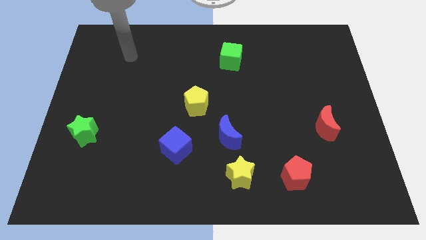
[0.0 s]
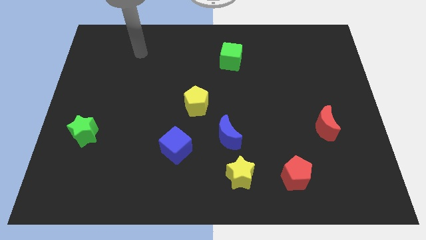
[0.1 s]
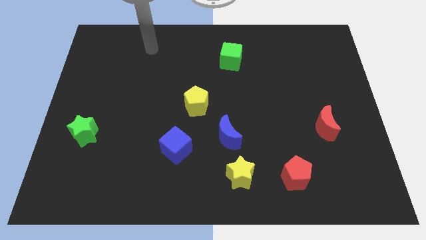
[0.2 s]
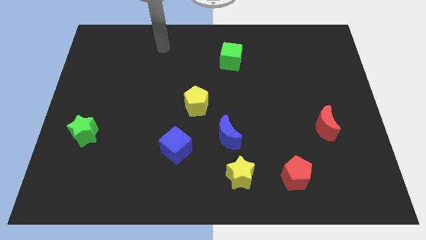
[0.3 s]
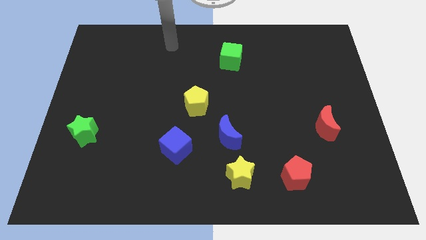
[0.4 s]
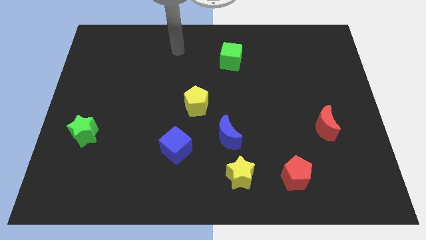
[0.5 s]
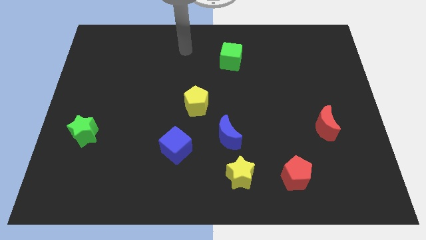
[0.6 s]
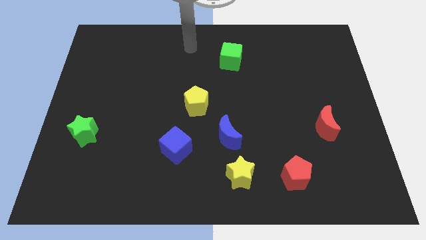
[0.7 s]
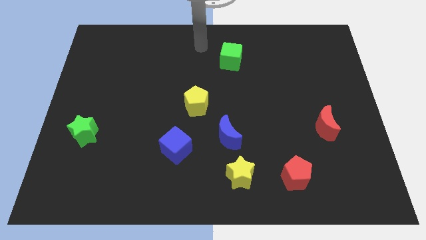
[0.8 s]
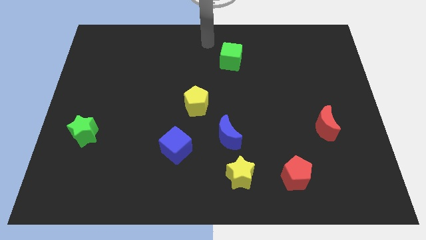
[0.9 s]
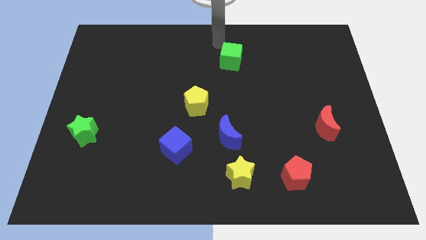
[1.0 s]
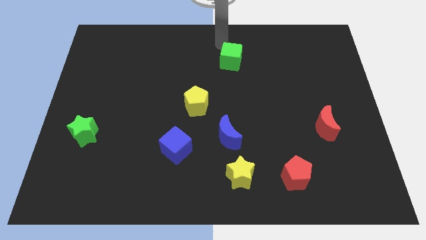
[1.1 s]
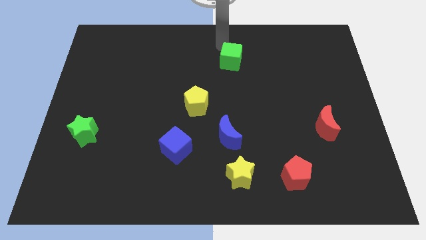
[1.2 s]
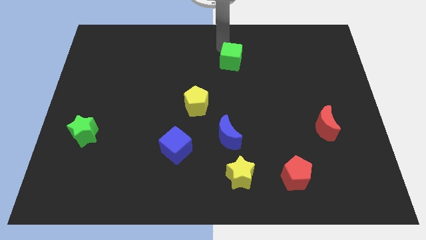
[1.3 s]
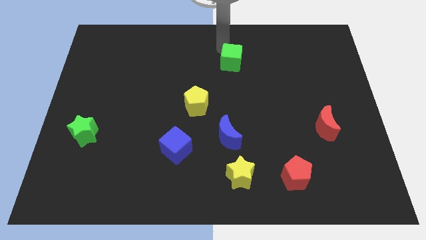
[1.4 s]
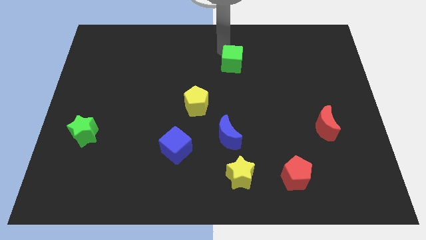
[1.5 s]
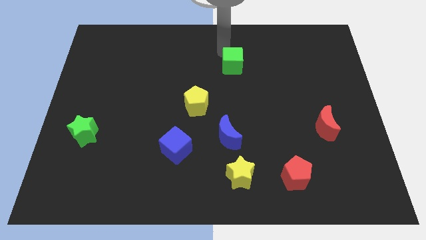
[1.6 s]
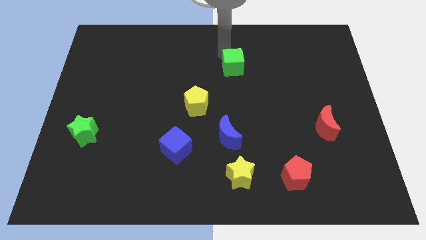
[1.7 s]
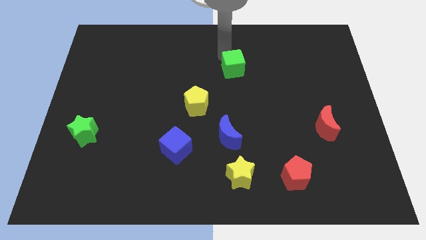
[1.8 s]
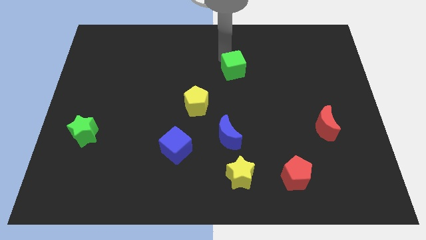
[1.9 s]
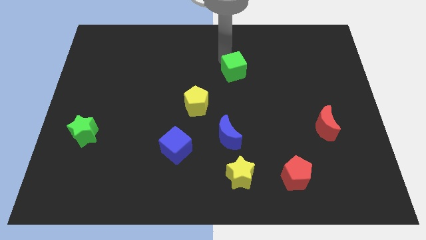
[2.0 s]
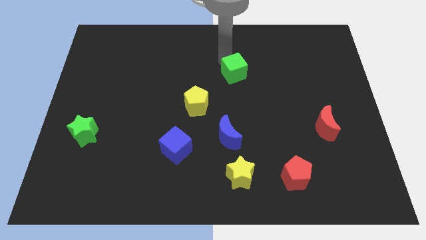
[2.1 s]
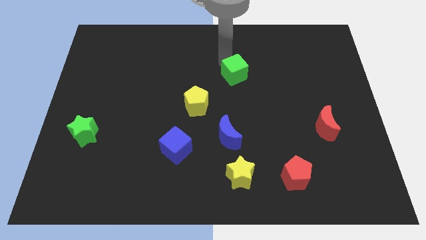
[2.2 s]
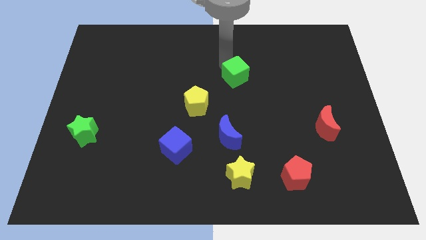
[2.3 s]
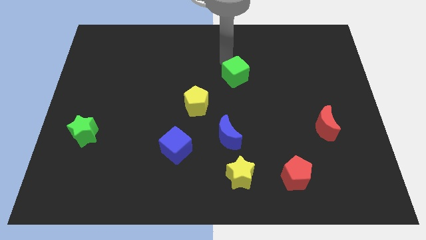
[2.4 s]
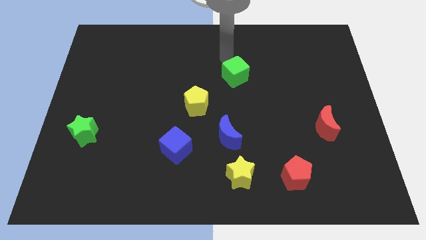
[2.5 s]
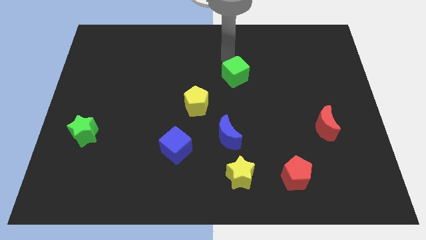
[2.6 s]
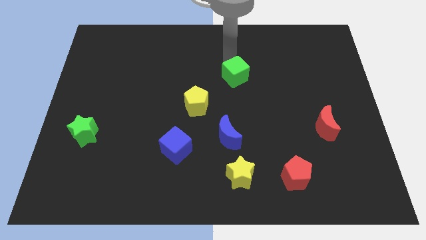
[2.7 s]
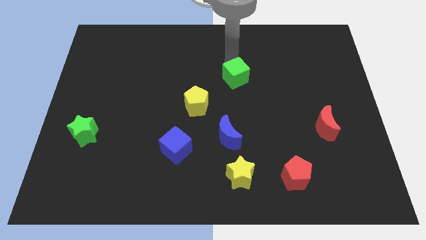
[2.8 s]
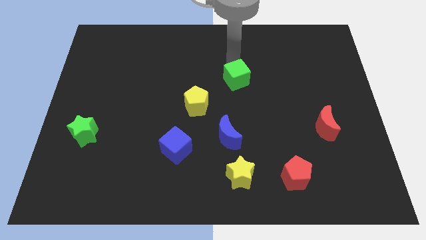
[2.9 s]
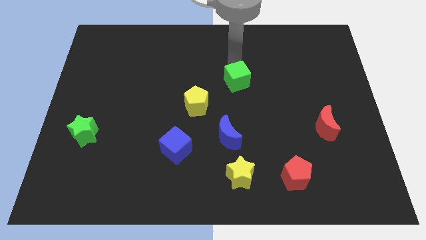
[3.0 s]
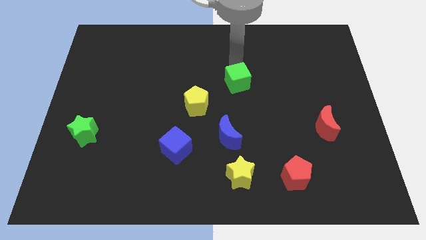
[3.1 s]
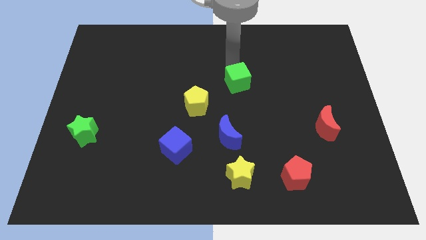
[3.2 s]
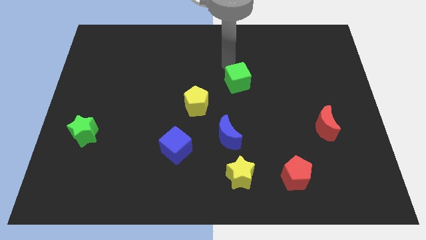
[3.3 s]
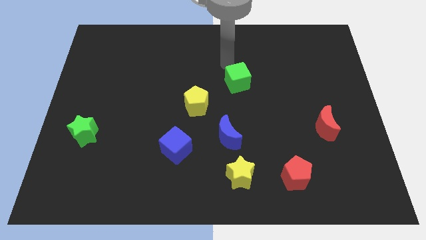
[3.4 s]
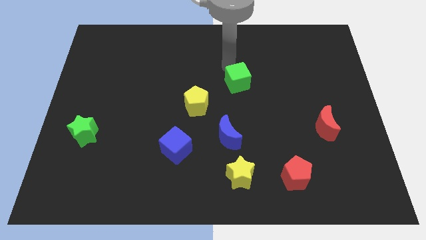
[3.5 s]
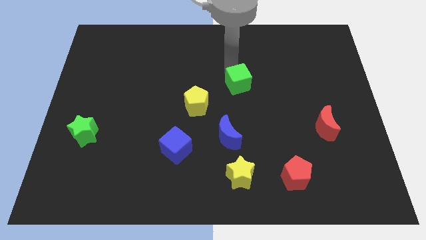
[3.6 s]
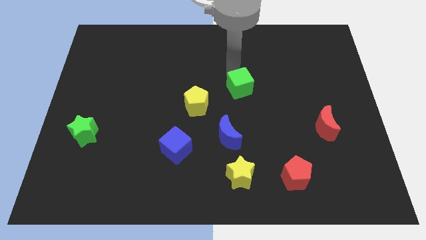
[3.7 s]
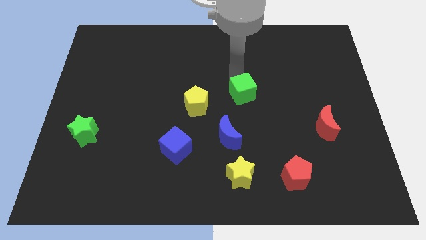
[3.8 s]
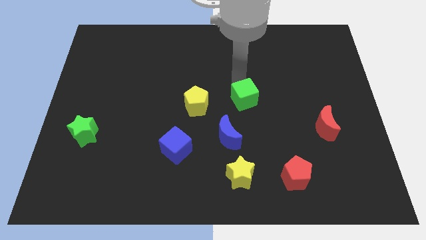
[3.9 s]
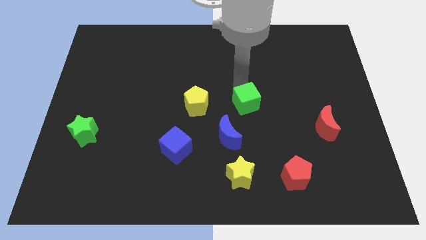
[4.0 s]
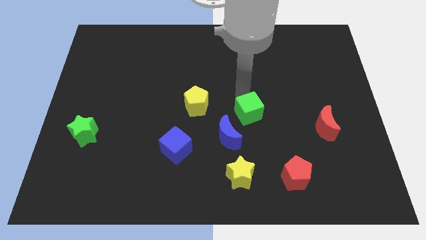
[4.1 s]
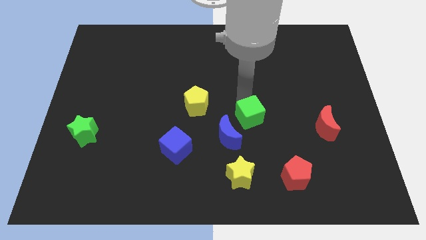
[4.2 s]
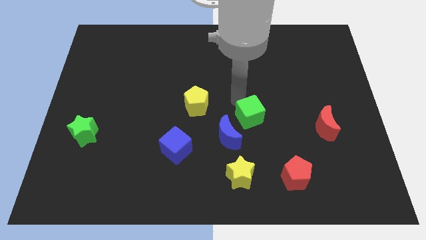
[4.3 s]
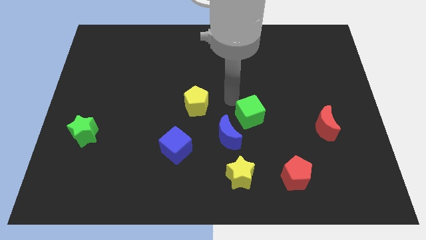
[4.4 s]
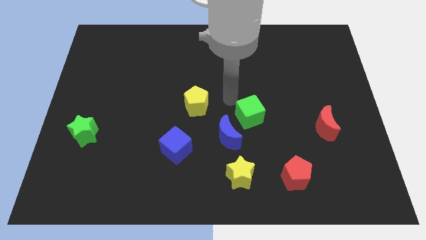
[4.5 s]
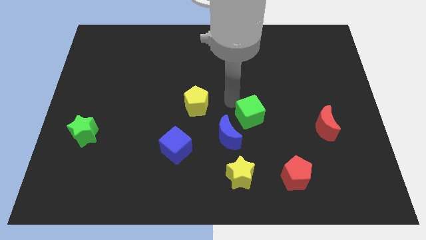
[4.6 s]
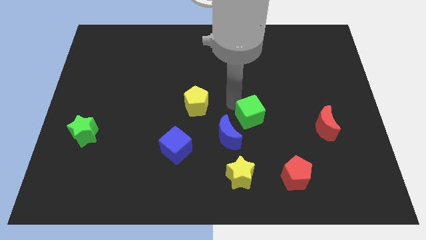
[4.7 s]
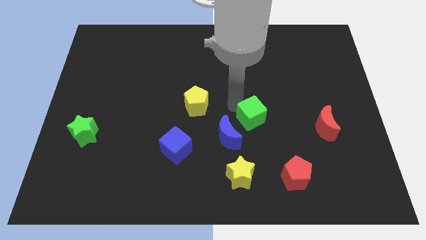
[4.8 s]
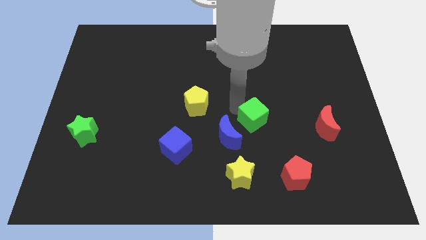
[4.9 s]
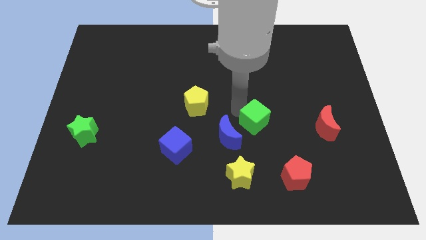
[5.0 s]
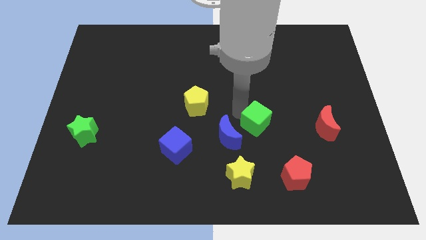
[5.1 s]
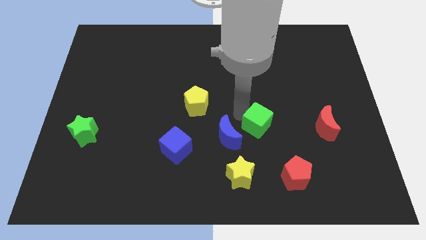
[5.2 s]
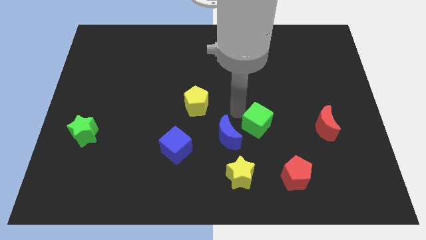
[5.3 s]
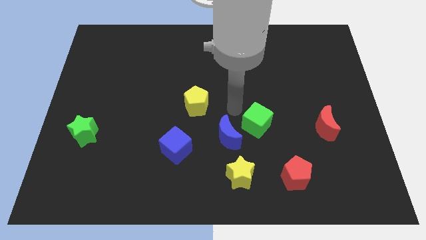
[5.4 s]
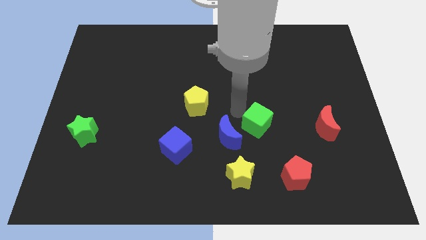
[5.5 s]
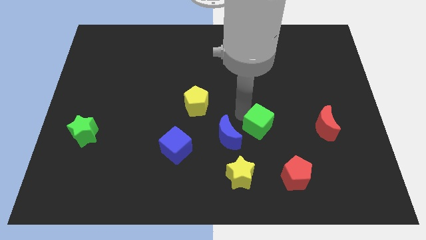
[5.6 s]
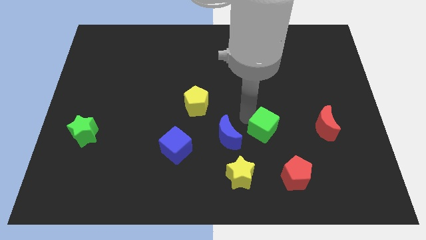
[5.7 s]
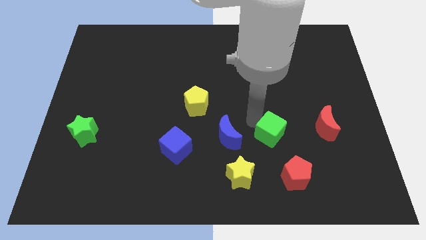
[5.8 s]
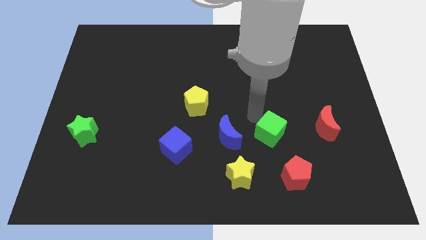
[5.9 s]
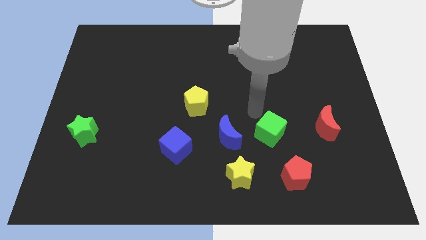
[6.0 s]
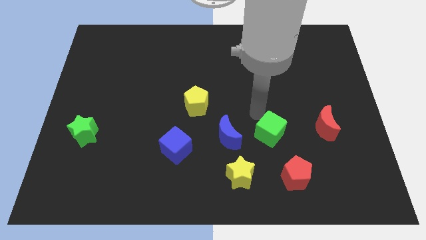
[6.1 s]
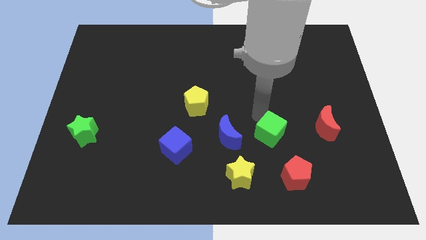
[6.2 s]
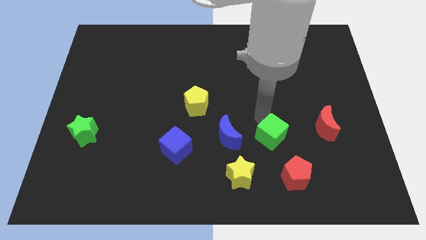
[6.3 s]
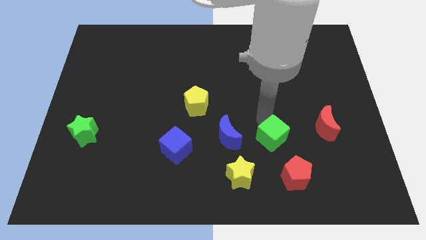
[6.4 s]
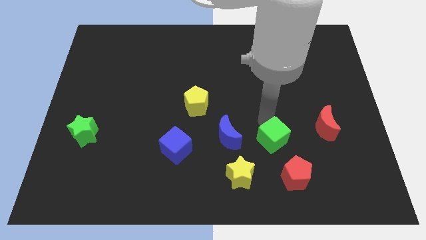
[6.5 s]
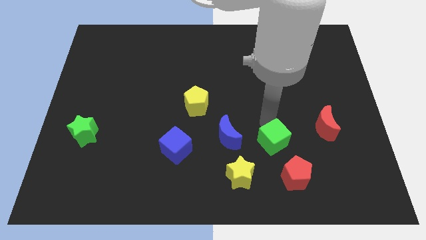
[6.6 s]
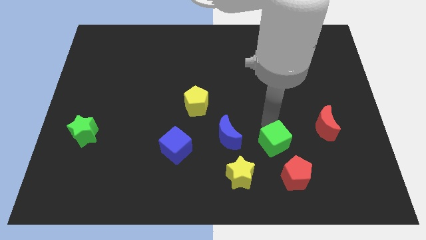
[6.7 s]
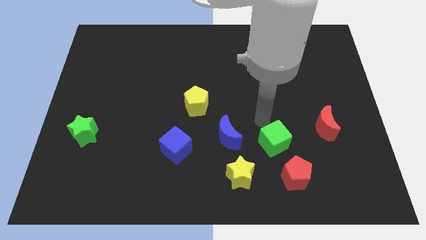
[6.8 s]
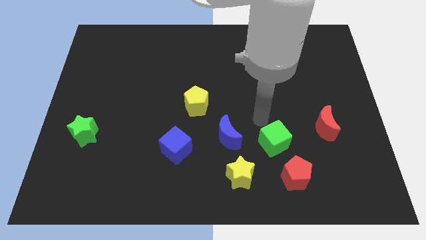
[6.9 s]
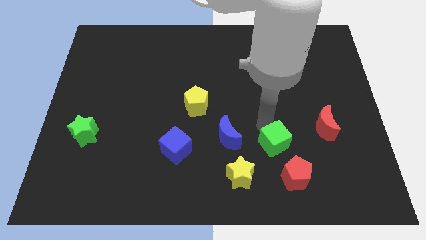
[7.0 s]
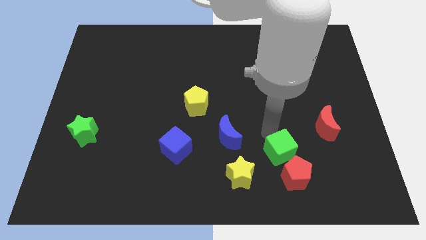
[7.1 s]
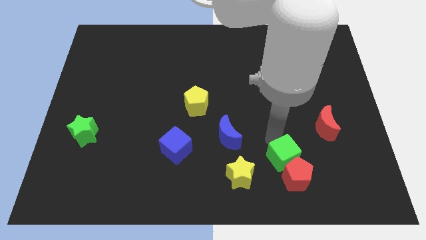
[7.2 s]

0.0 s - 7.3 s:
move the green cube next to the red pentagon
